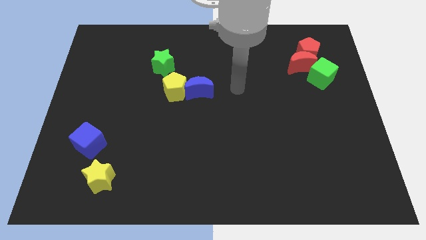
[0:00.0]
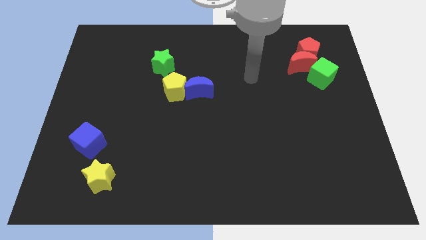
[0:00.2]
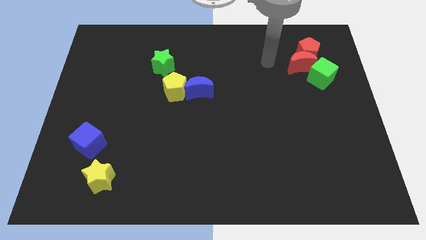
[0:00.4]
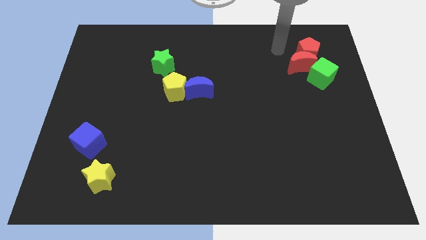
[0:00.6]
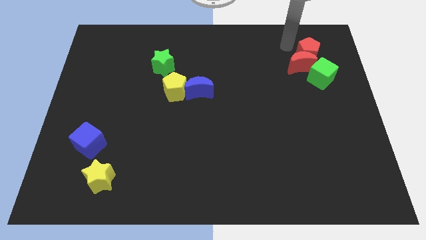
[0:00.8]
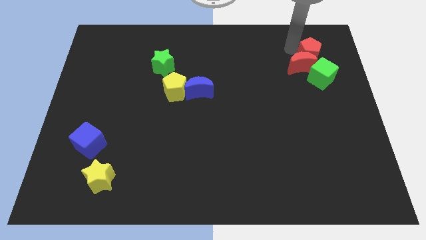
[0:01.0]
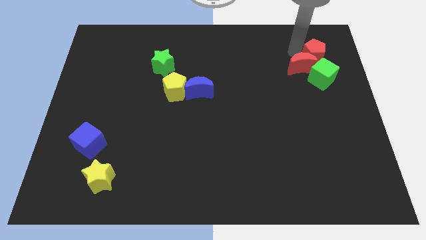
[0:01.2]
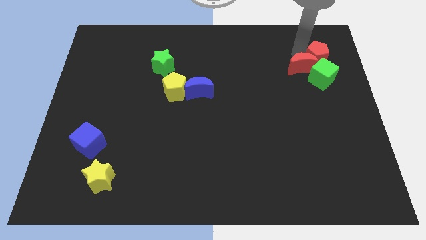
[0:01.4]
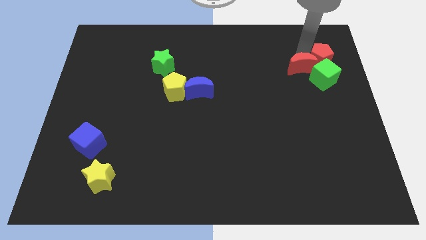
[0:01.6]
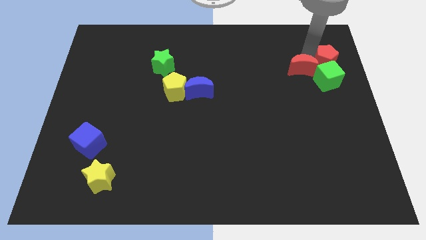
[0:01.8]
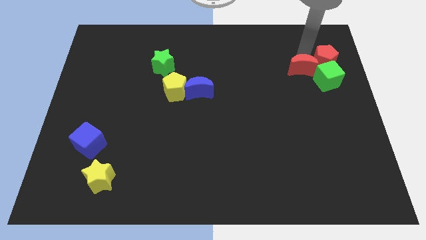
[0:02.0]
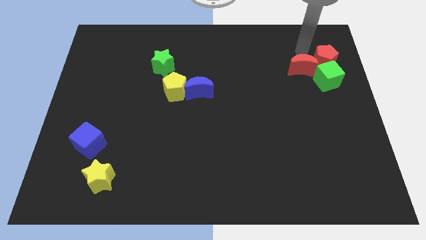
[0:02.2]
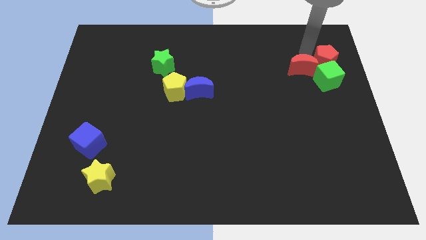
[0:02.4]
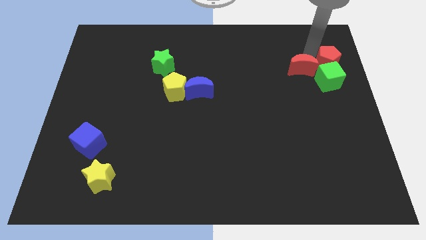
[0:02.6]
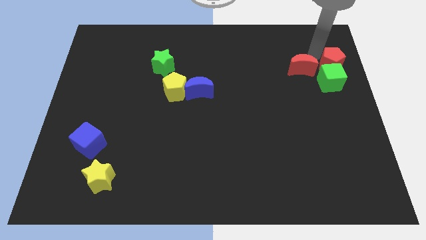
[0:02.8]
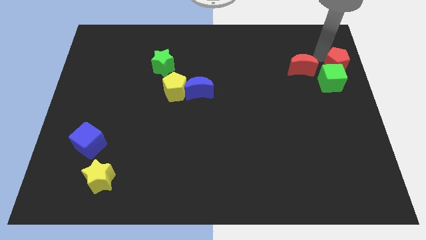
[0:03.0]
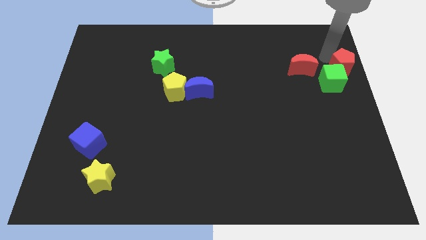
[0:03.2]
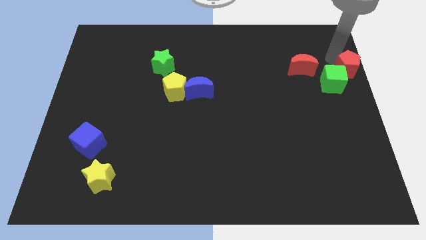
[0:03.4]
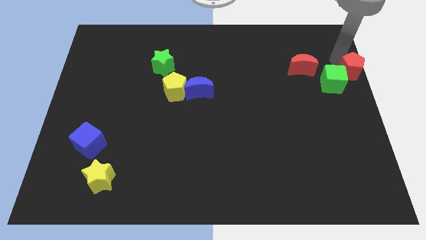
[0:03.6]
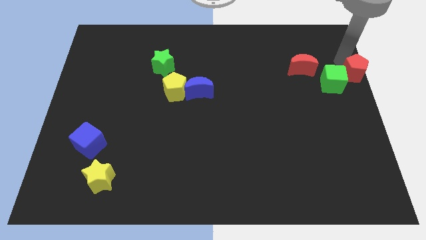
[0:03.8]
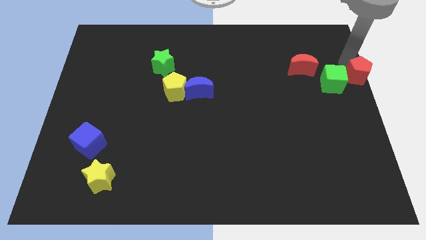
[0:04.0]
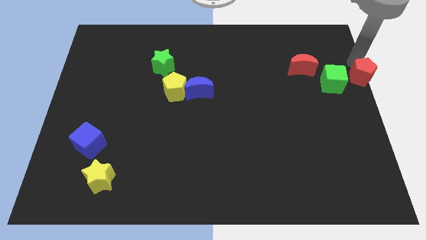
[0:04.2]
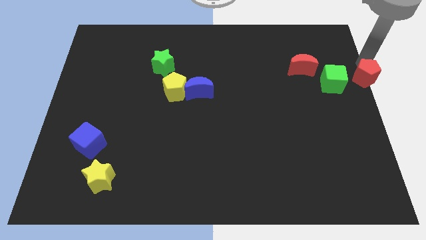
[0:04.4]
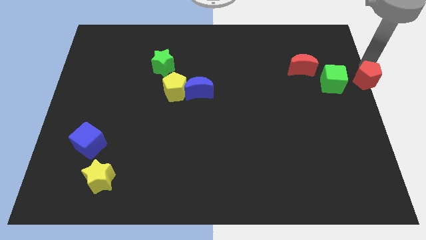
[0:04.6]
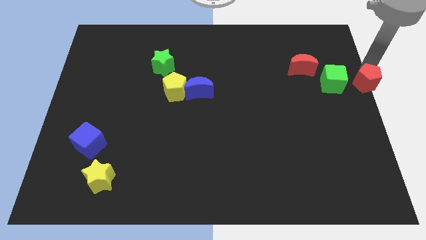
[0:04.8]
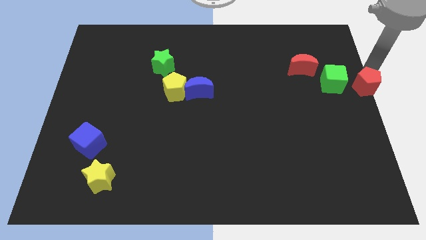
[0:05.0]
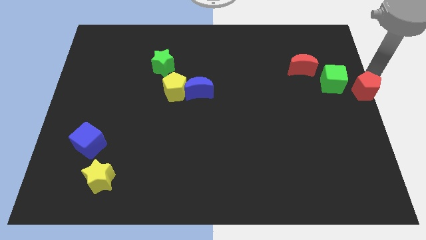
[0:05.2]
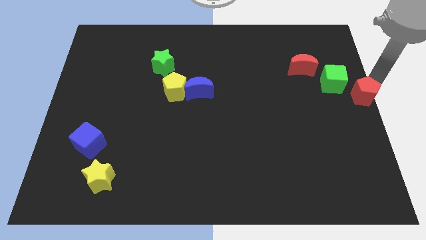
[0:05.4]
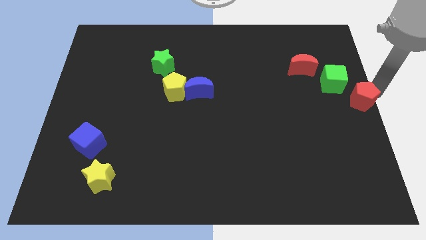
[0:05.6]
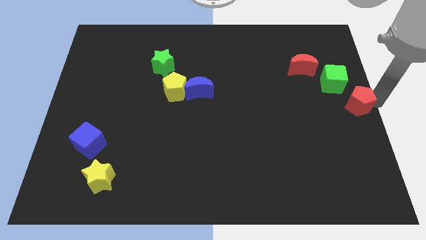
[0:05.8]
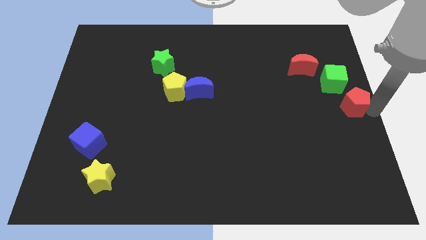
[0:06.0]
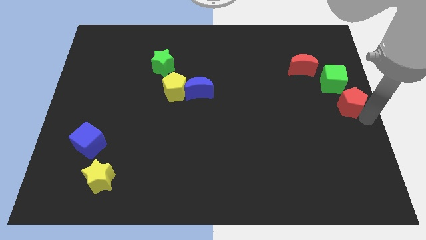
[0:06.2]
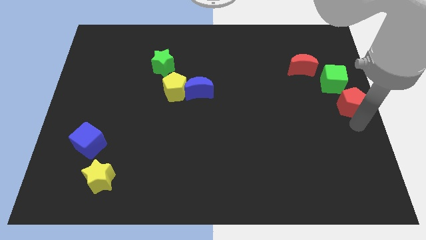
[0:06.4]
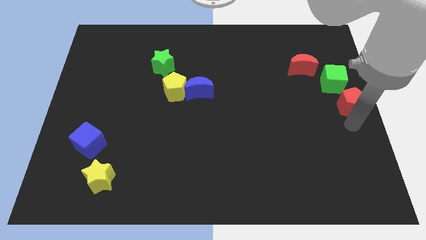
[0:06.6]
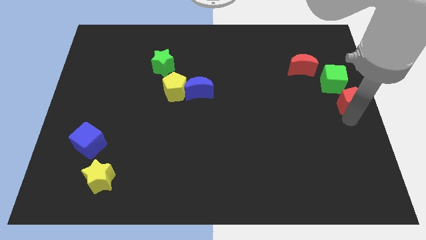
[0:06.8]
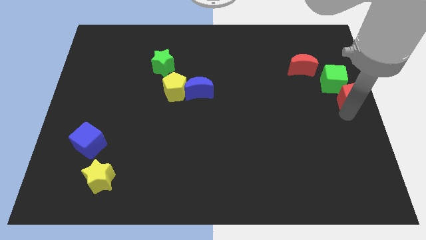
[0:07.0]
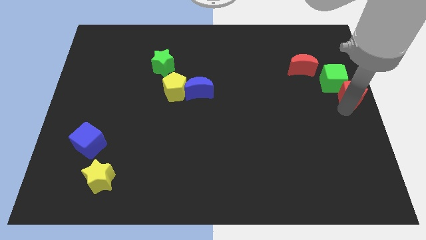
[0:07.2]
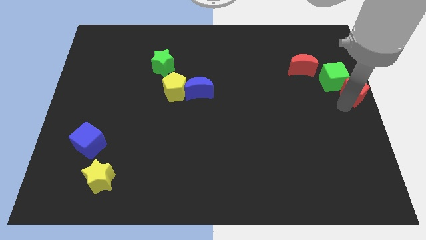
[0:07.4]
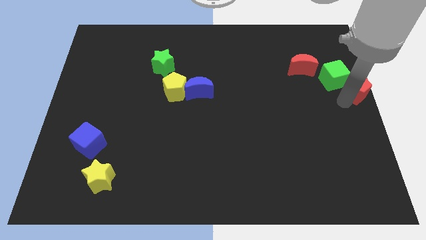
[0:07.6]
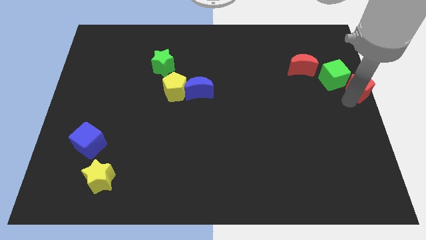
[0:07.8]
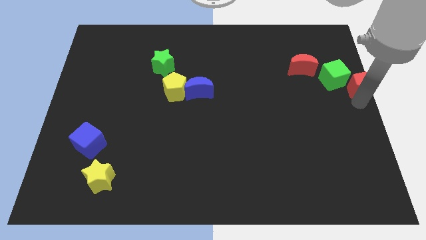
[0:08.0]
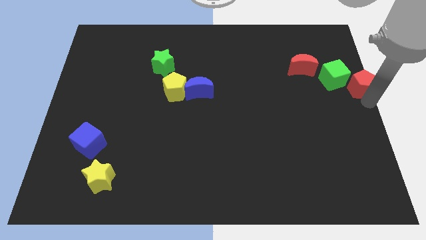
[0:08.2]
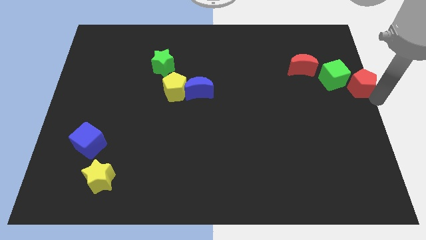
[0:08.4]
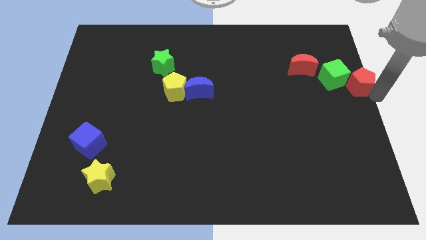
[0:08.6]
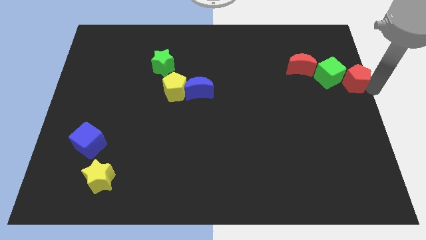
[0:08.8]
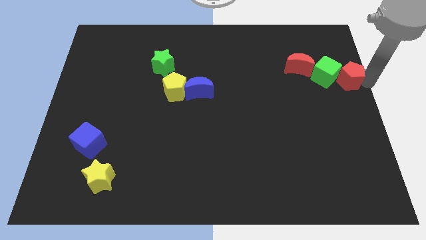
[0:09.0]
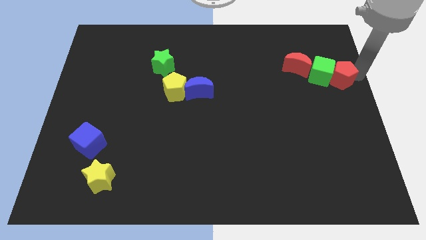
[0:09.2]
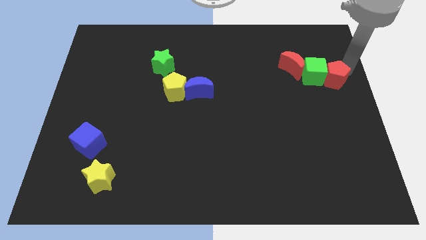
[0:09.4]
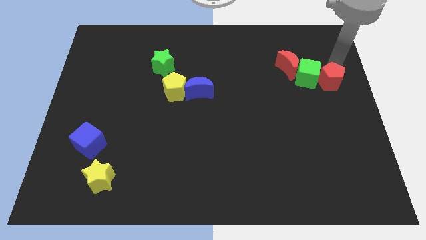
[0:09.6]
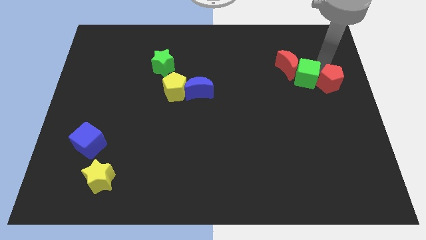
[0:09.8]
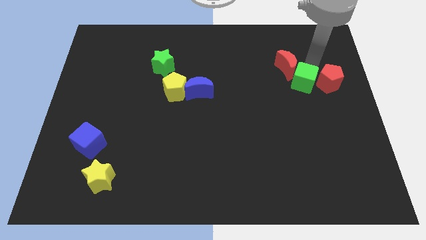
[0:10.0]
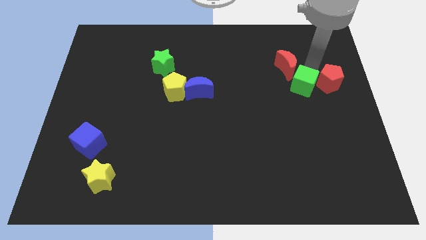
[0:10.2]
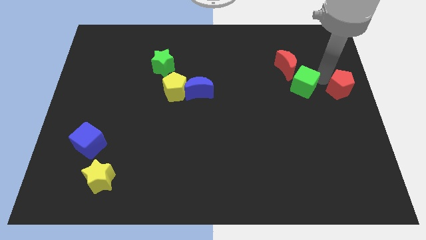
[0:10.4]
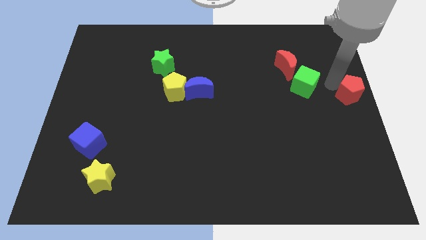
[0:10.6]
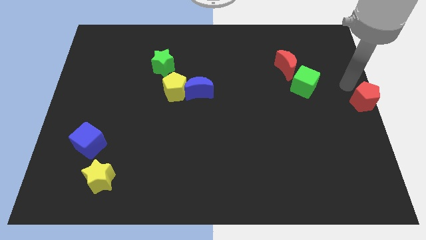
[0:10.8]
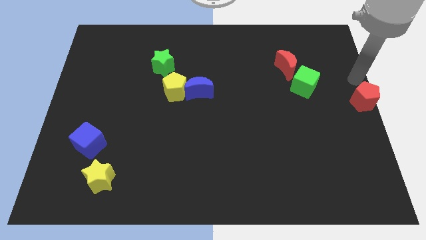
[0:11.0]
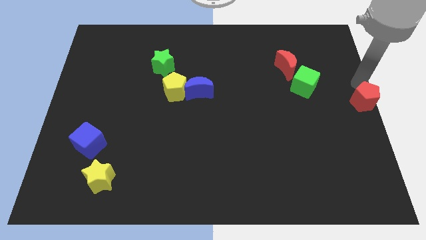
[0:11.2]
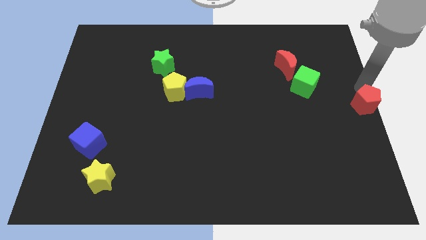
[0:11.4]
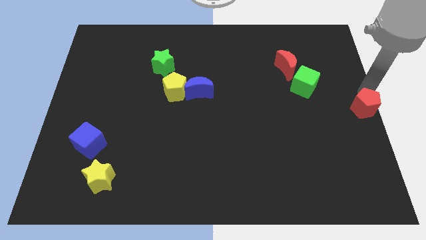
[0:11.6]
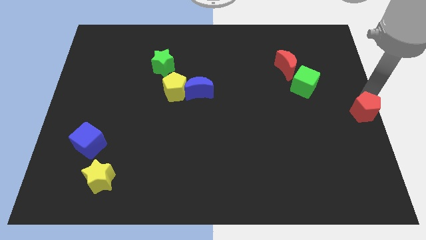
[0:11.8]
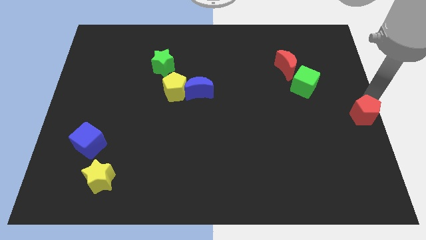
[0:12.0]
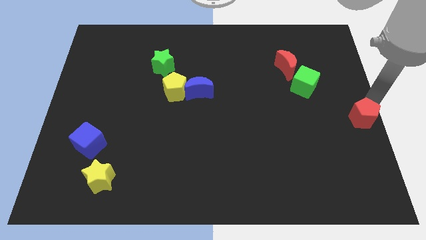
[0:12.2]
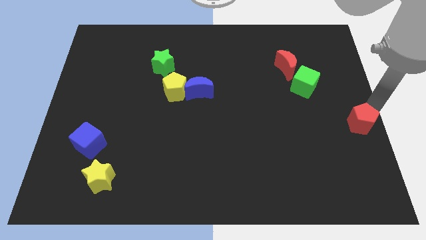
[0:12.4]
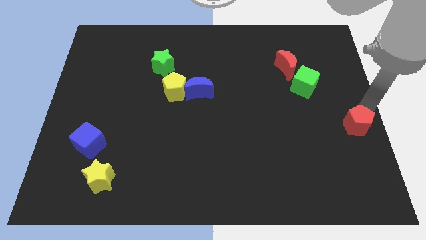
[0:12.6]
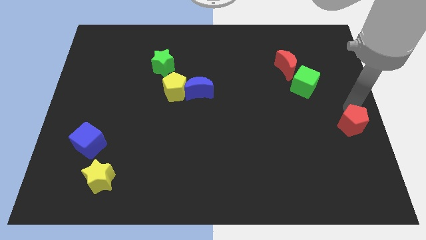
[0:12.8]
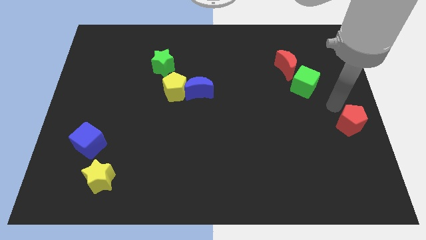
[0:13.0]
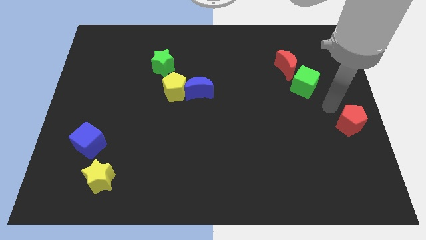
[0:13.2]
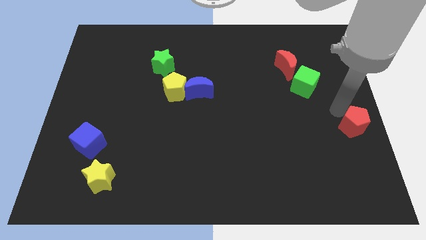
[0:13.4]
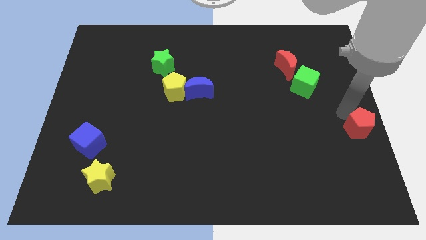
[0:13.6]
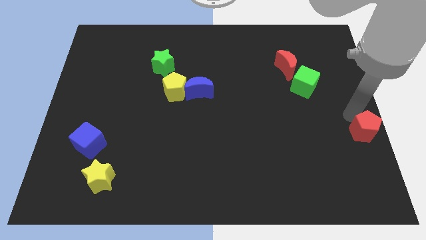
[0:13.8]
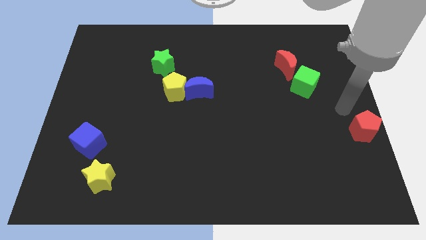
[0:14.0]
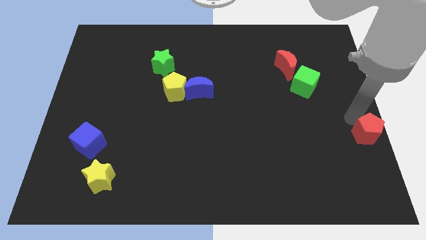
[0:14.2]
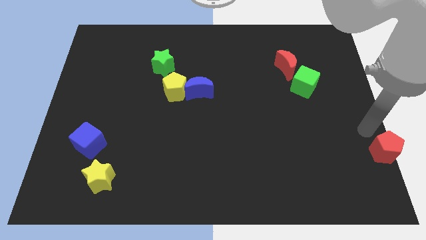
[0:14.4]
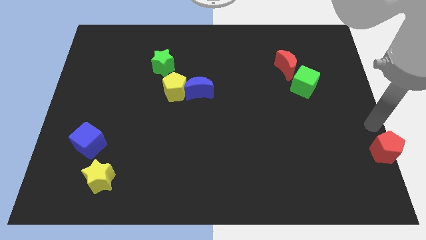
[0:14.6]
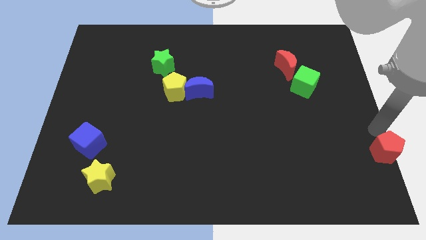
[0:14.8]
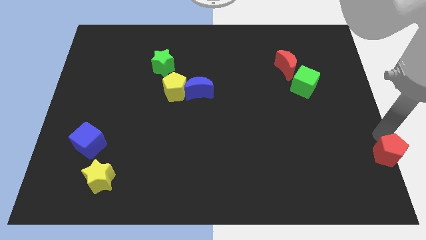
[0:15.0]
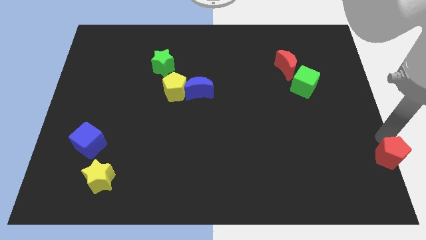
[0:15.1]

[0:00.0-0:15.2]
put the red pentagon to the bottom right
